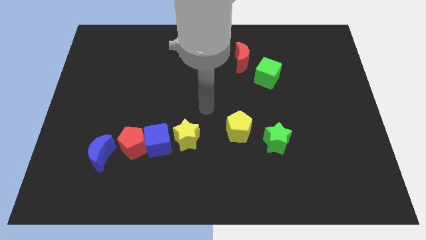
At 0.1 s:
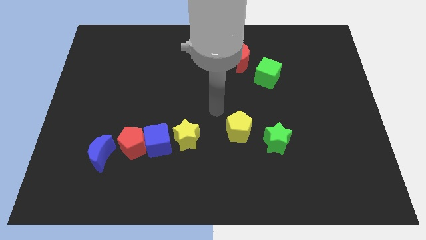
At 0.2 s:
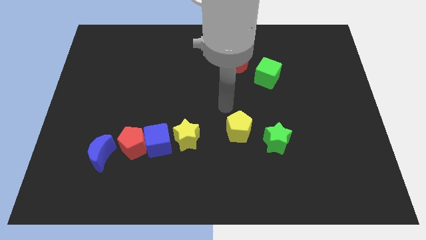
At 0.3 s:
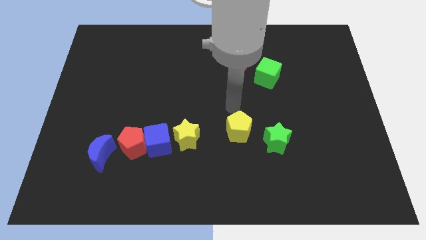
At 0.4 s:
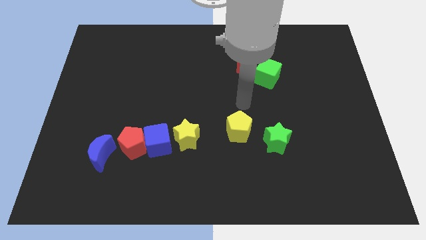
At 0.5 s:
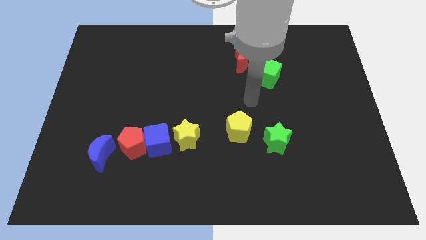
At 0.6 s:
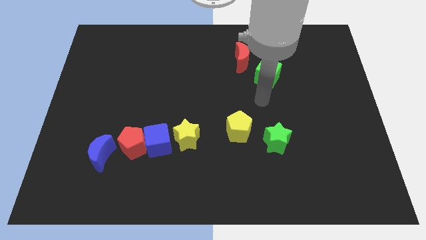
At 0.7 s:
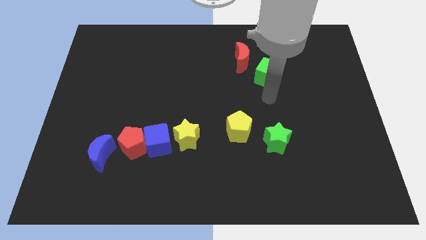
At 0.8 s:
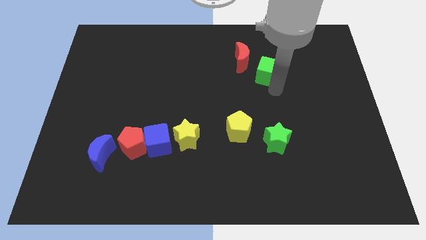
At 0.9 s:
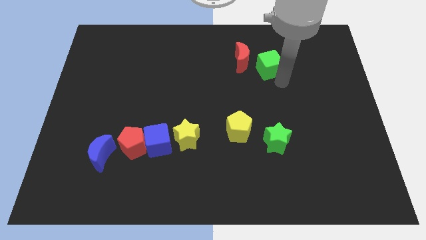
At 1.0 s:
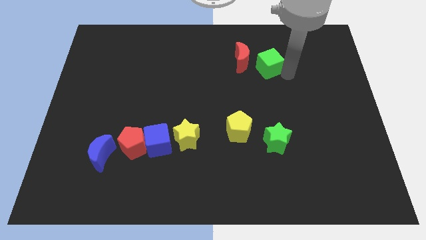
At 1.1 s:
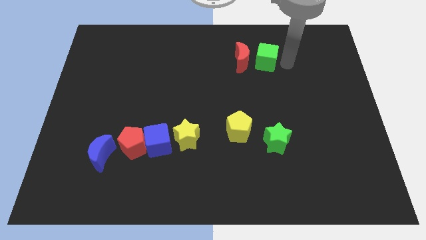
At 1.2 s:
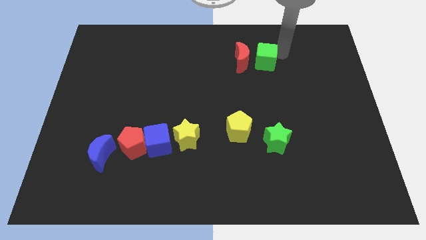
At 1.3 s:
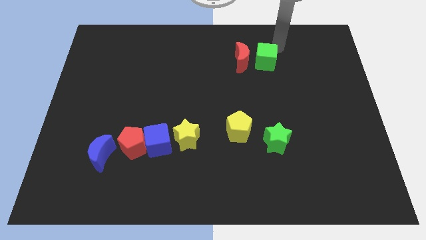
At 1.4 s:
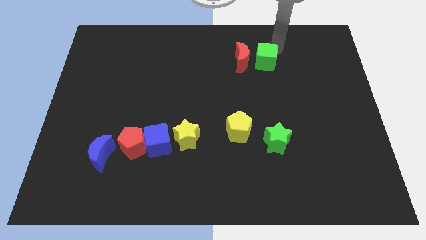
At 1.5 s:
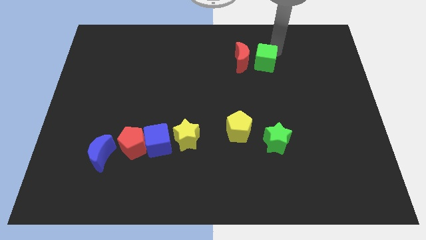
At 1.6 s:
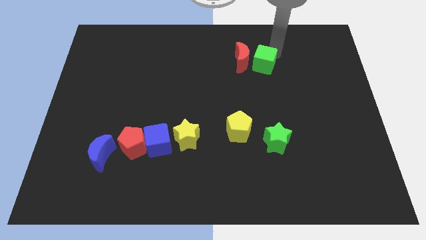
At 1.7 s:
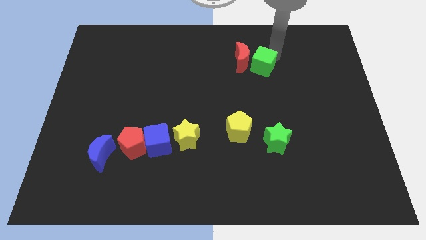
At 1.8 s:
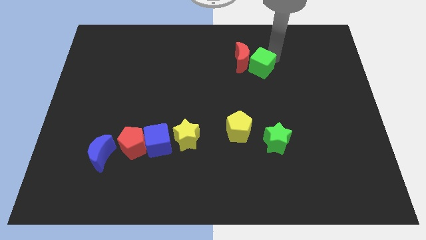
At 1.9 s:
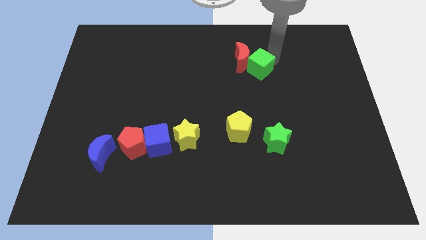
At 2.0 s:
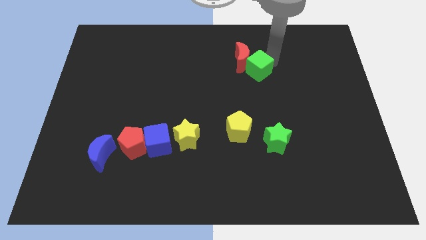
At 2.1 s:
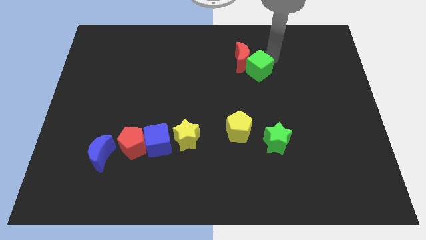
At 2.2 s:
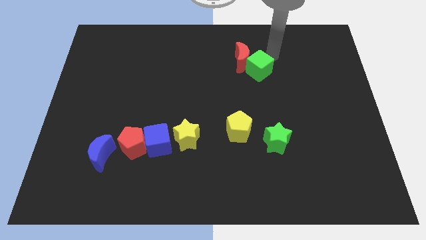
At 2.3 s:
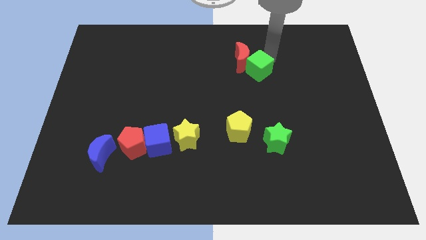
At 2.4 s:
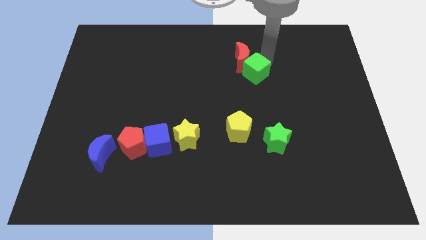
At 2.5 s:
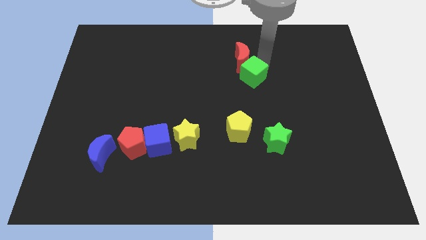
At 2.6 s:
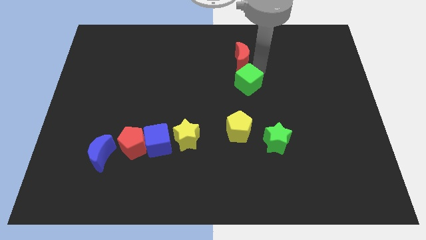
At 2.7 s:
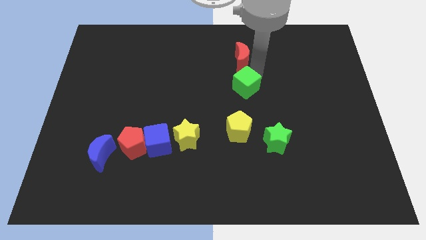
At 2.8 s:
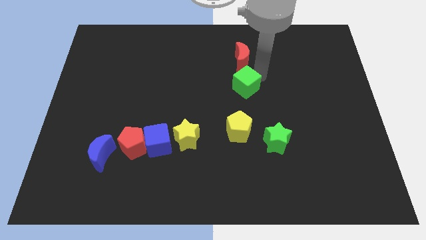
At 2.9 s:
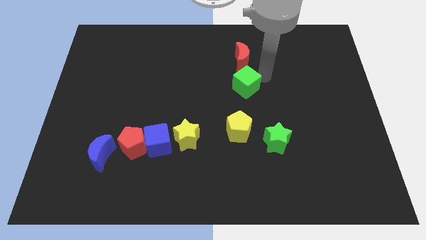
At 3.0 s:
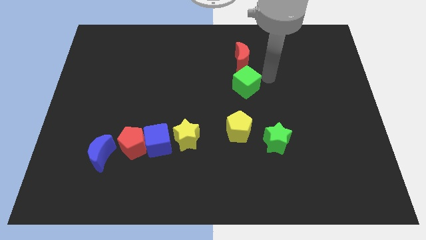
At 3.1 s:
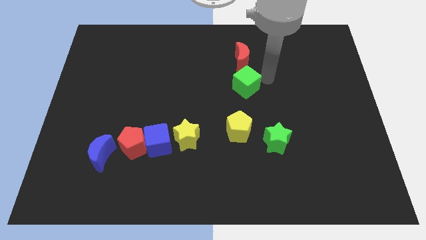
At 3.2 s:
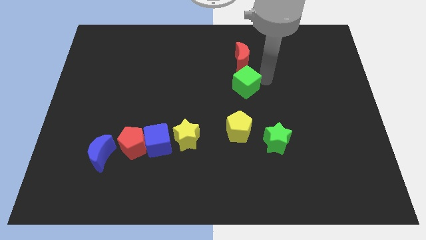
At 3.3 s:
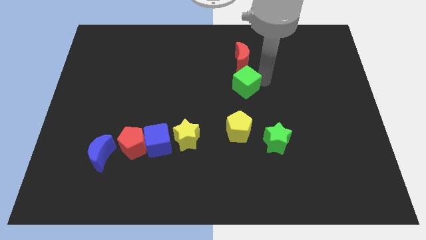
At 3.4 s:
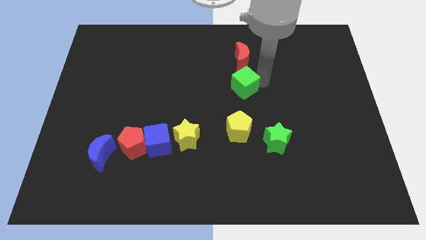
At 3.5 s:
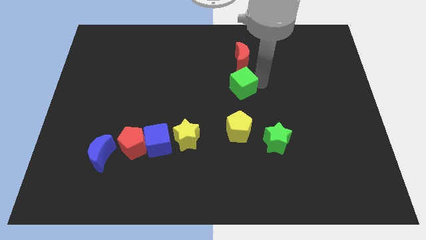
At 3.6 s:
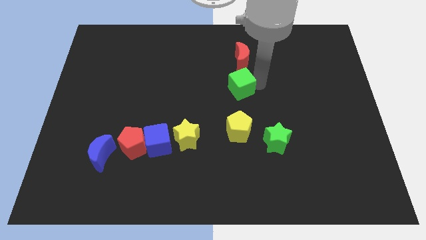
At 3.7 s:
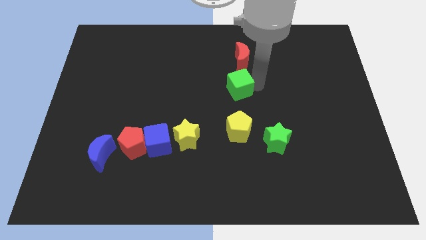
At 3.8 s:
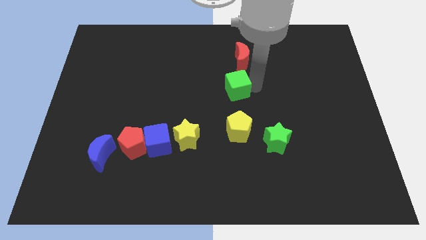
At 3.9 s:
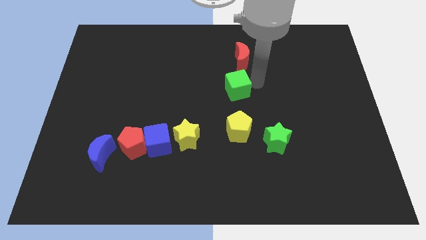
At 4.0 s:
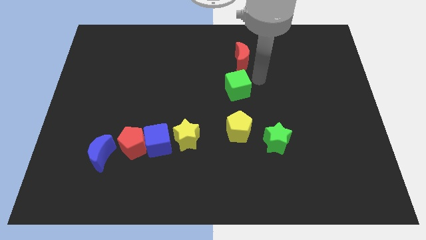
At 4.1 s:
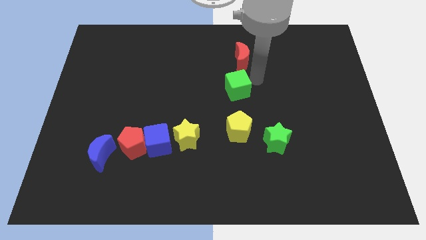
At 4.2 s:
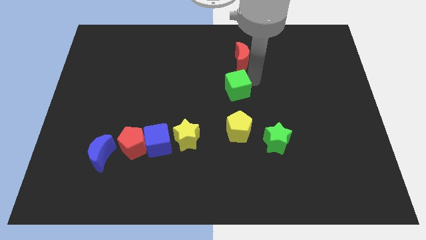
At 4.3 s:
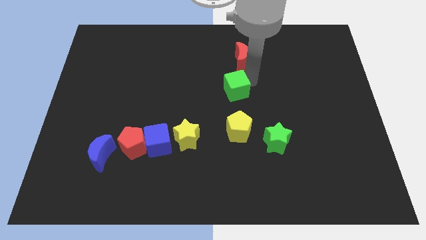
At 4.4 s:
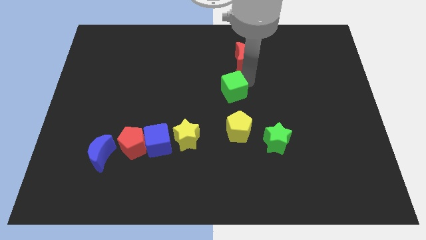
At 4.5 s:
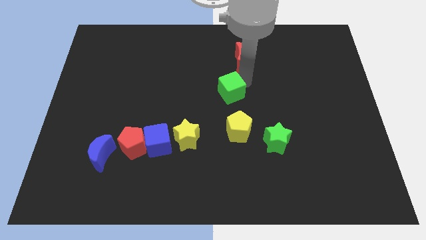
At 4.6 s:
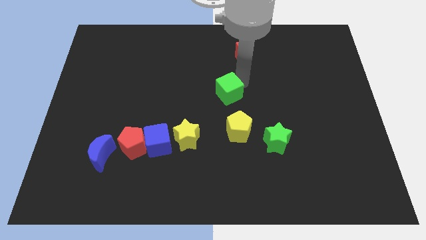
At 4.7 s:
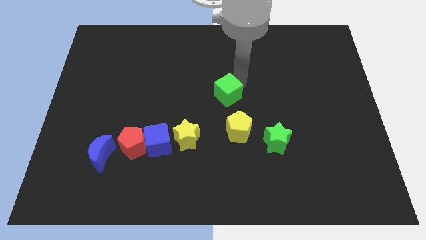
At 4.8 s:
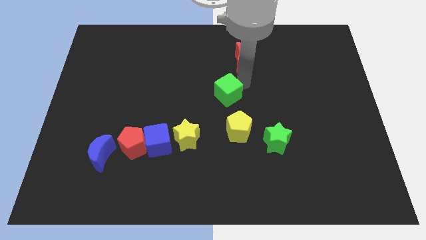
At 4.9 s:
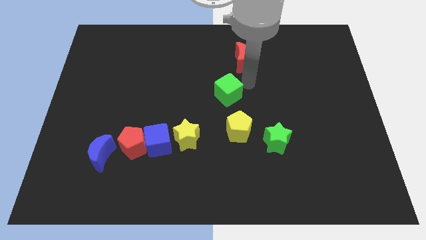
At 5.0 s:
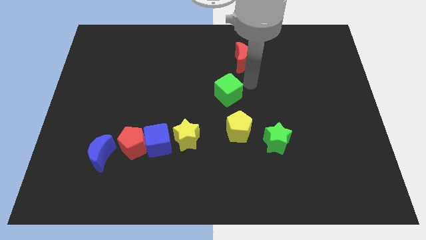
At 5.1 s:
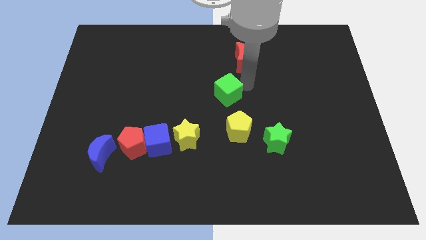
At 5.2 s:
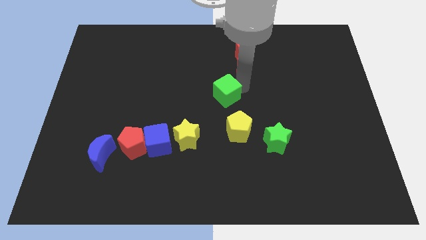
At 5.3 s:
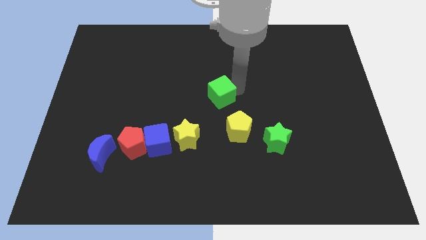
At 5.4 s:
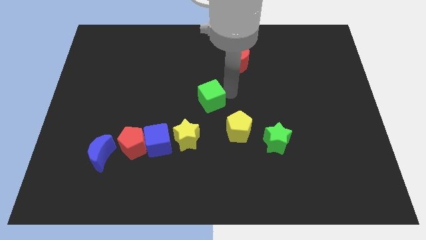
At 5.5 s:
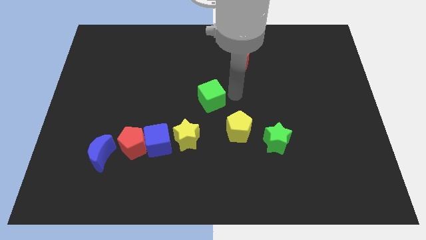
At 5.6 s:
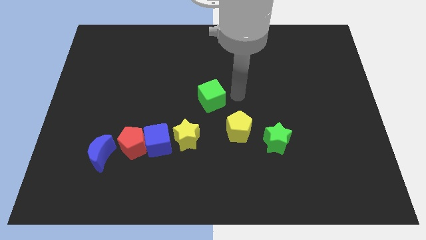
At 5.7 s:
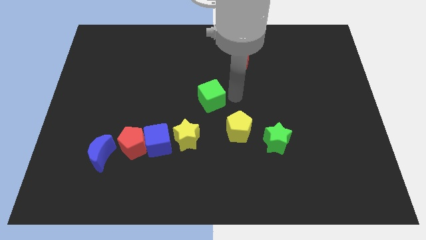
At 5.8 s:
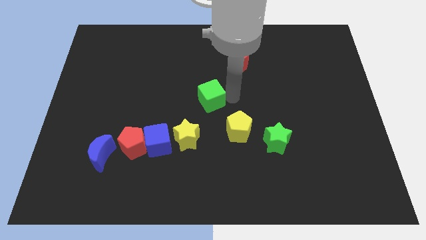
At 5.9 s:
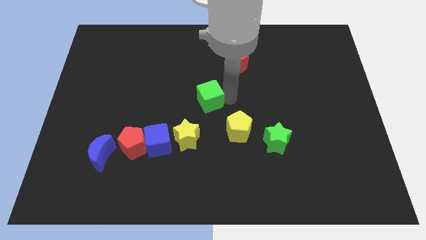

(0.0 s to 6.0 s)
put the green cube to the top side of the yellow star
